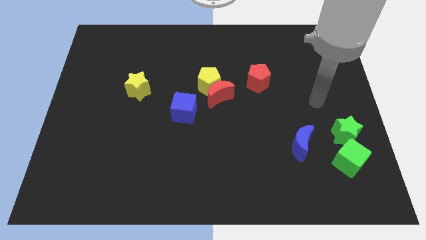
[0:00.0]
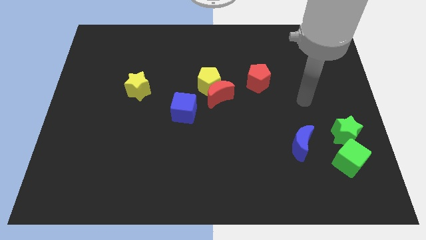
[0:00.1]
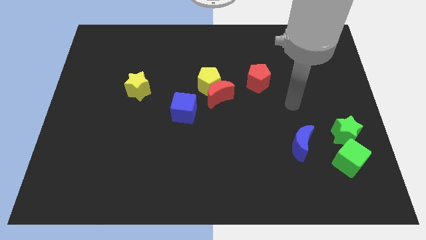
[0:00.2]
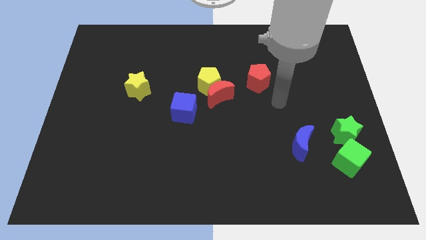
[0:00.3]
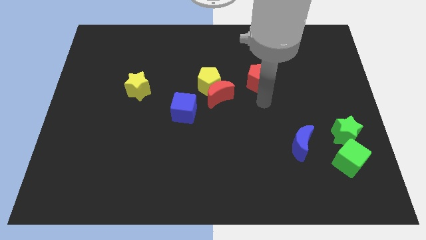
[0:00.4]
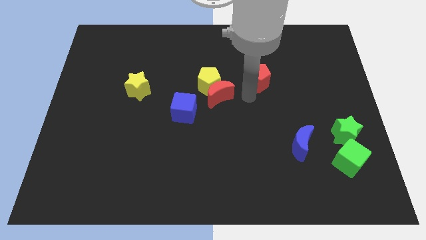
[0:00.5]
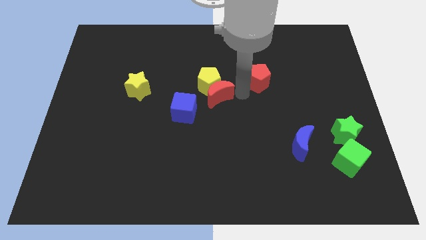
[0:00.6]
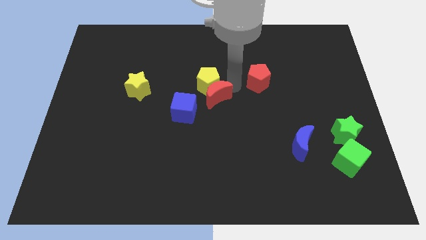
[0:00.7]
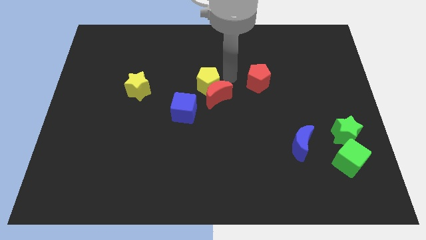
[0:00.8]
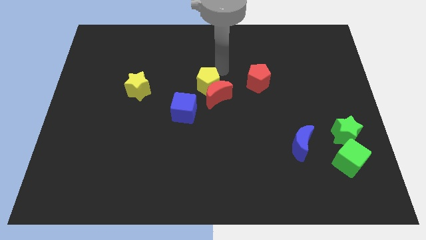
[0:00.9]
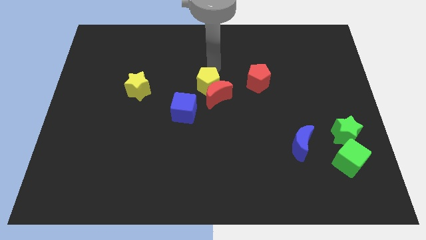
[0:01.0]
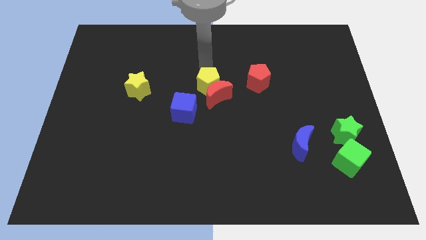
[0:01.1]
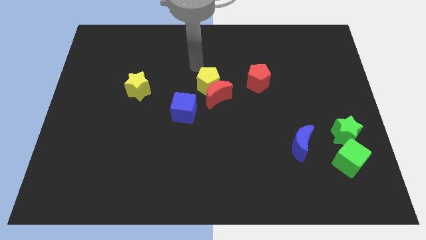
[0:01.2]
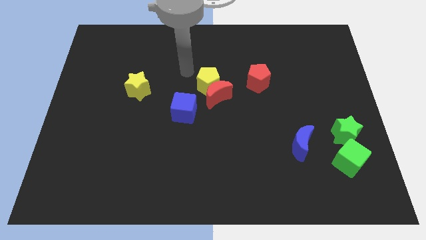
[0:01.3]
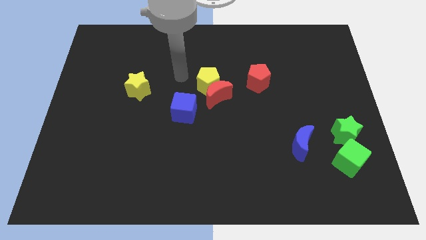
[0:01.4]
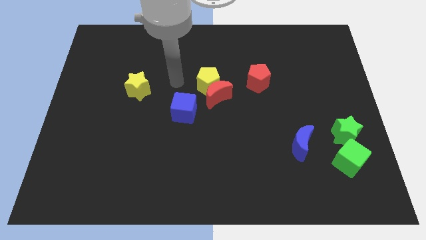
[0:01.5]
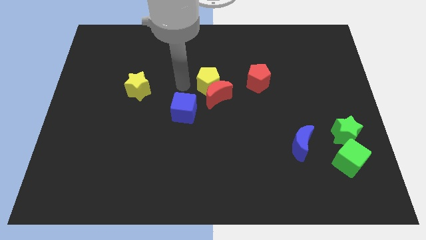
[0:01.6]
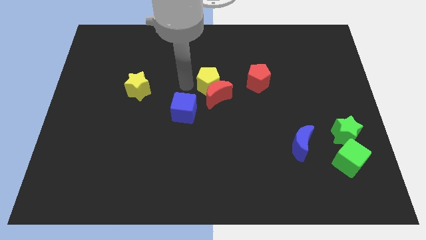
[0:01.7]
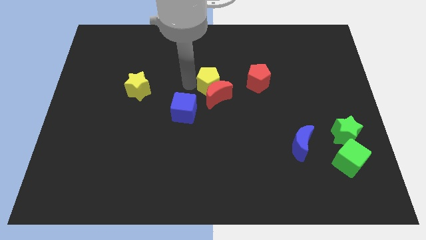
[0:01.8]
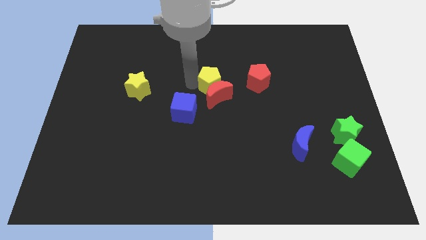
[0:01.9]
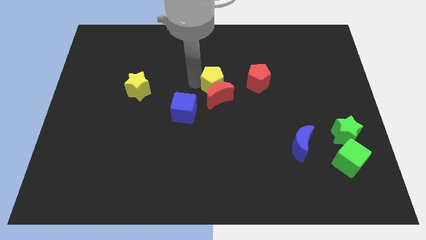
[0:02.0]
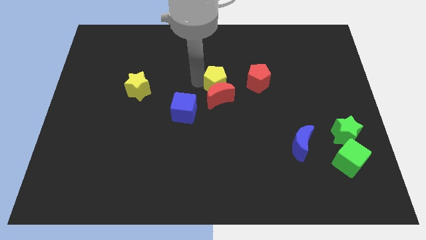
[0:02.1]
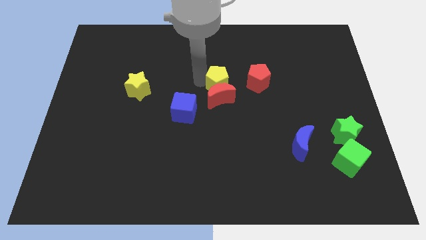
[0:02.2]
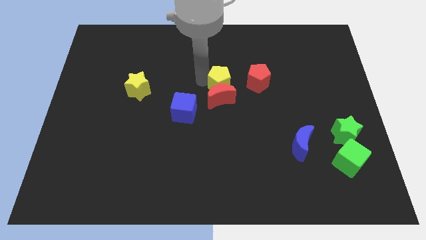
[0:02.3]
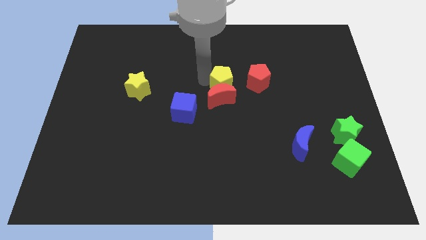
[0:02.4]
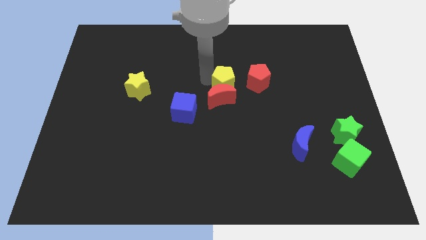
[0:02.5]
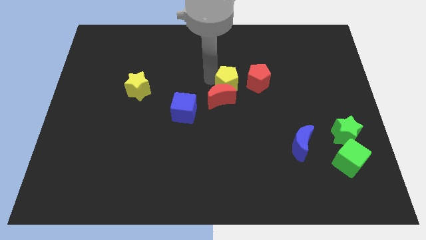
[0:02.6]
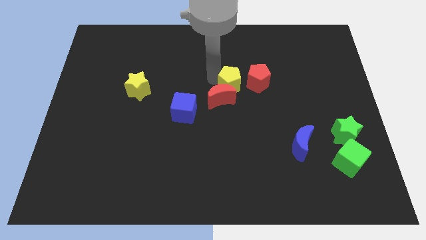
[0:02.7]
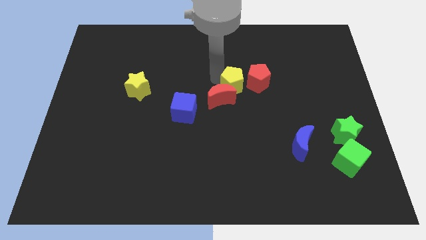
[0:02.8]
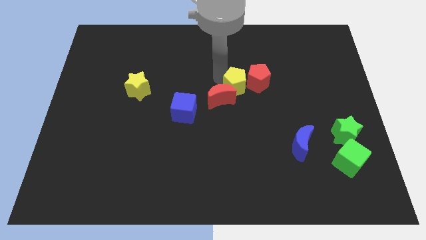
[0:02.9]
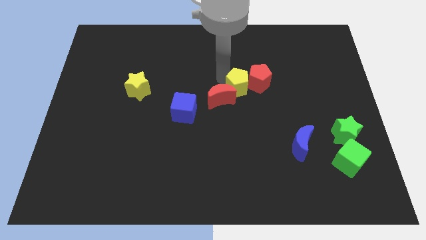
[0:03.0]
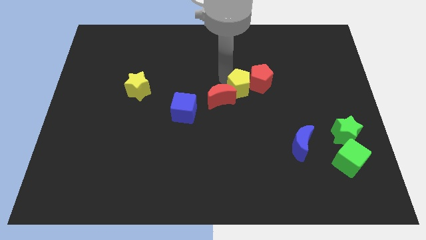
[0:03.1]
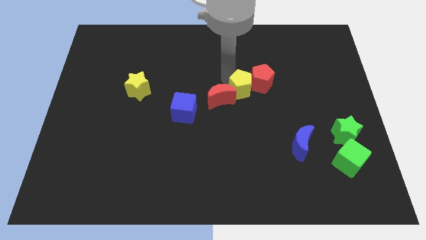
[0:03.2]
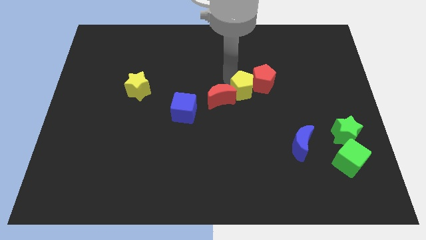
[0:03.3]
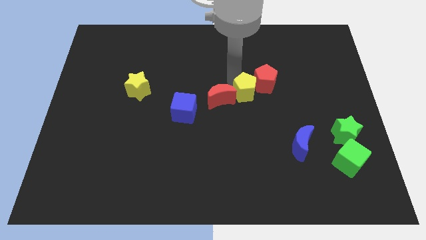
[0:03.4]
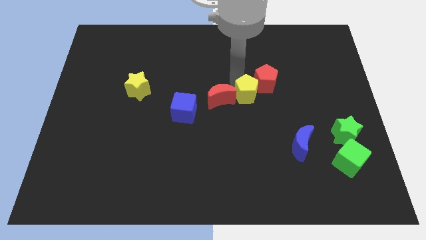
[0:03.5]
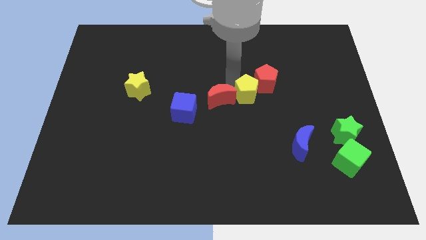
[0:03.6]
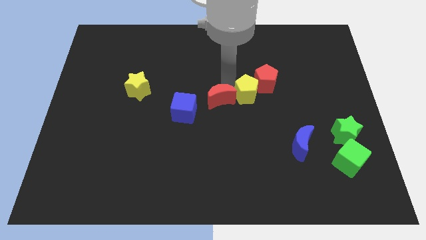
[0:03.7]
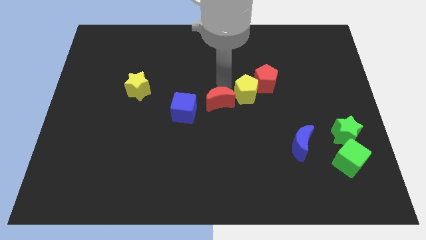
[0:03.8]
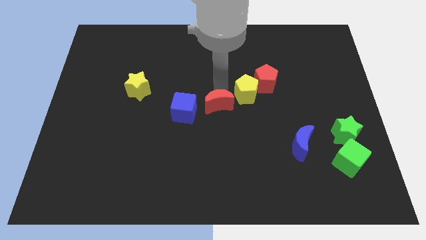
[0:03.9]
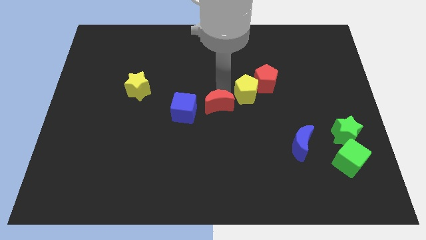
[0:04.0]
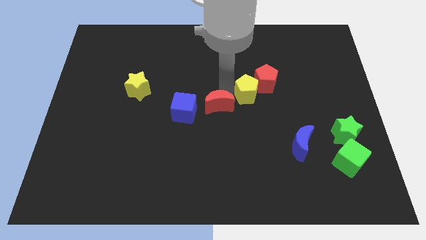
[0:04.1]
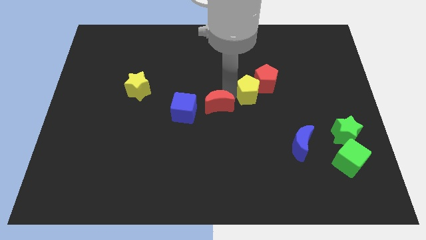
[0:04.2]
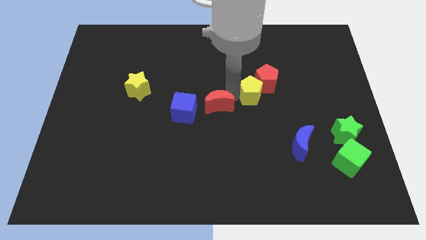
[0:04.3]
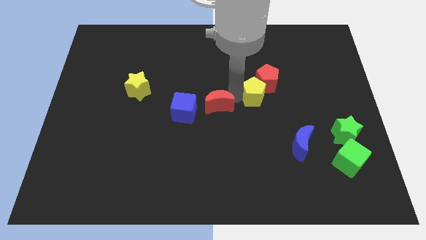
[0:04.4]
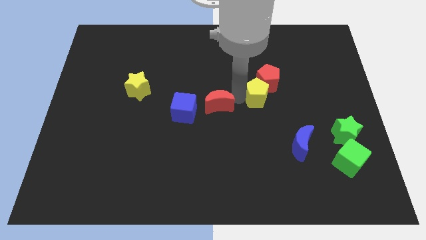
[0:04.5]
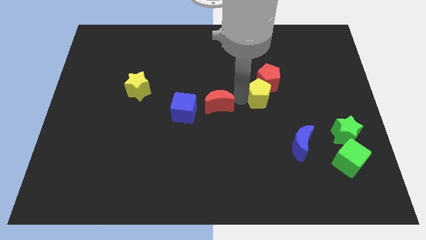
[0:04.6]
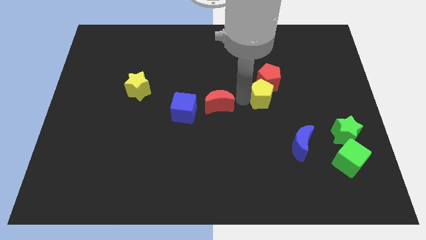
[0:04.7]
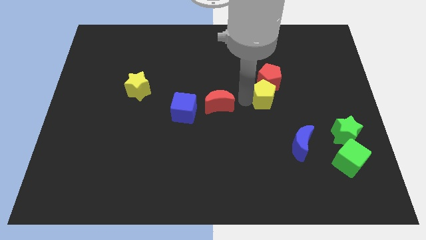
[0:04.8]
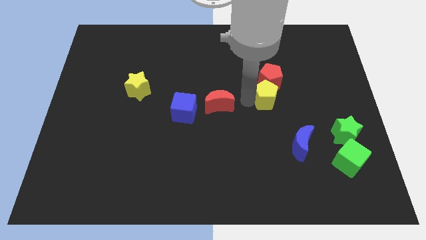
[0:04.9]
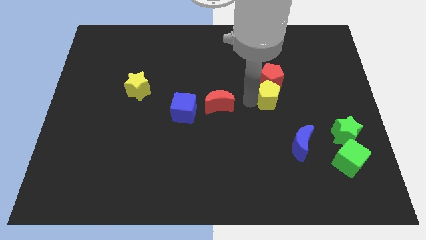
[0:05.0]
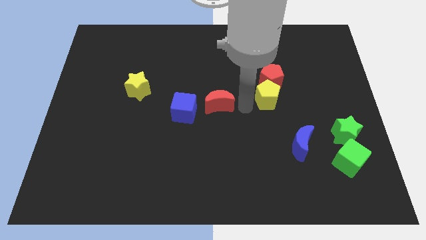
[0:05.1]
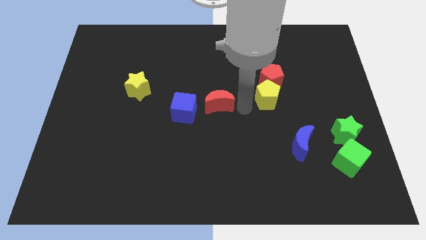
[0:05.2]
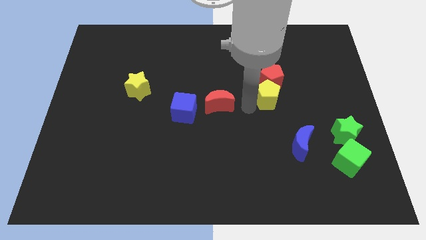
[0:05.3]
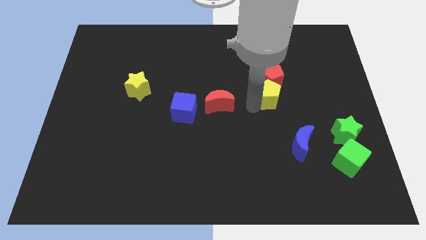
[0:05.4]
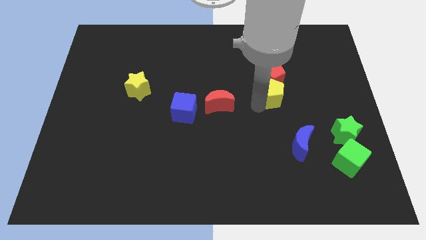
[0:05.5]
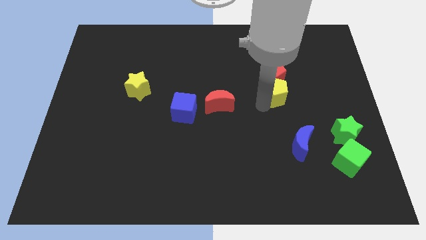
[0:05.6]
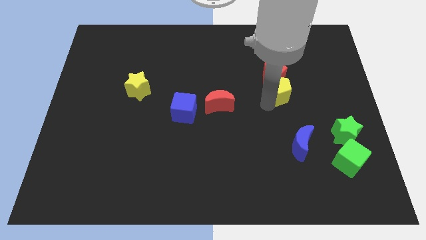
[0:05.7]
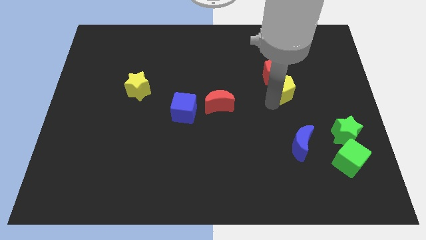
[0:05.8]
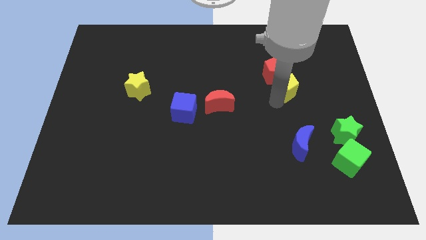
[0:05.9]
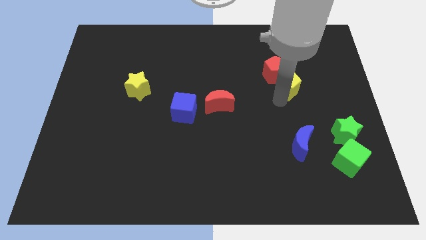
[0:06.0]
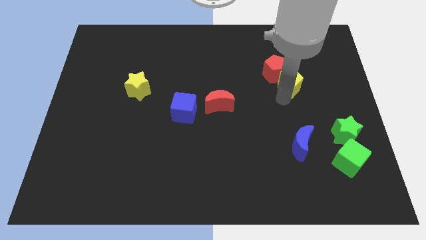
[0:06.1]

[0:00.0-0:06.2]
move the yellow pentagon just right of the red pentagon
